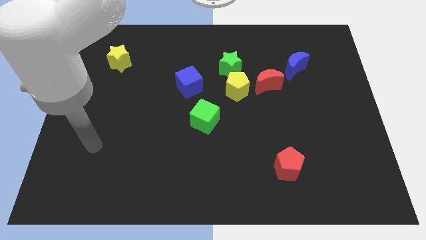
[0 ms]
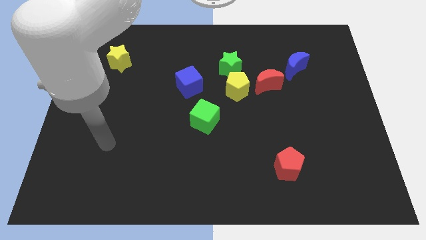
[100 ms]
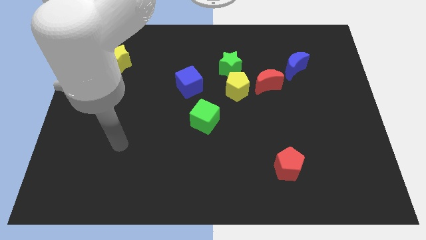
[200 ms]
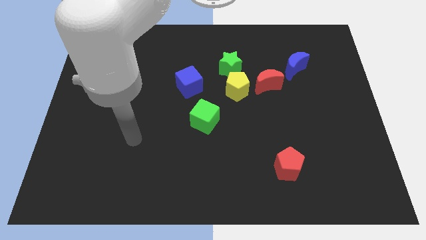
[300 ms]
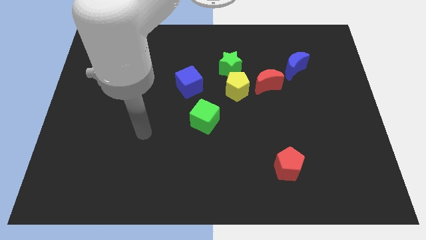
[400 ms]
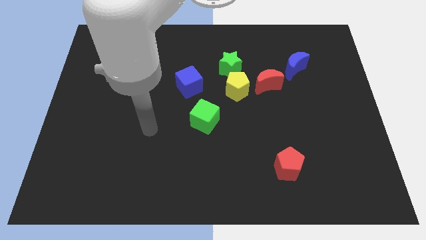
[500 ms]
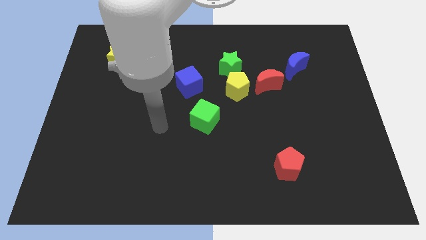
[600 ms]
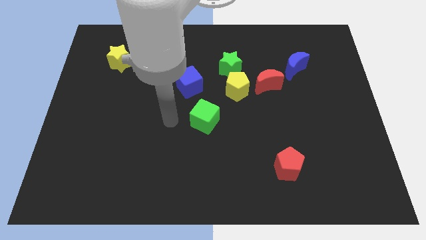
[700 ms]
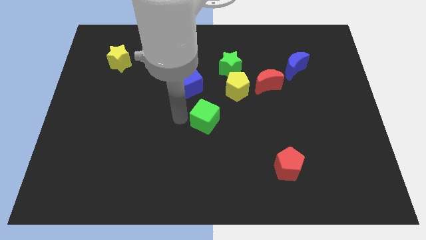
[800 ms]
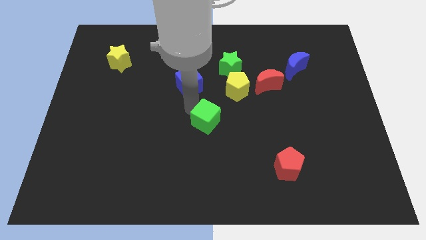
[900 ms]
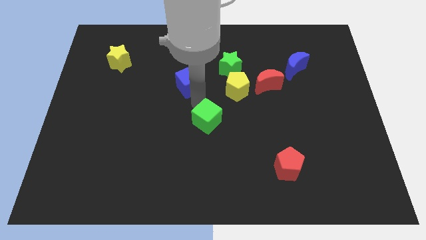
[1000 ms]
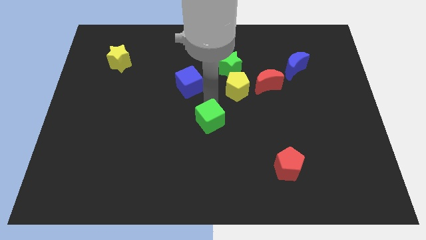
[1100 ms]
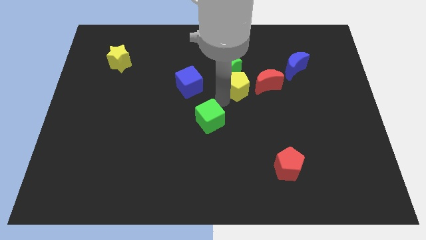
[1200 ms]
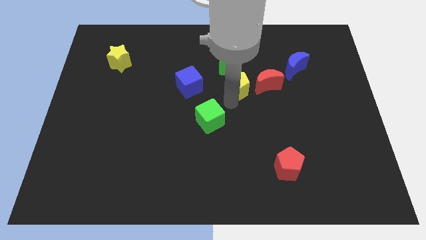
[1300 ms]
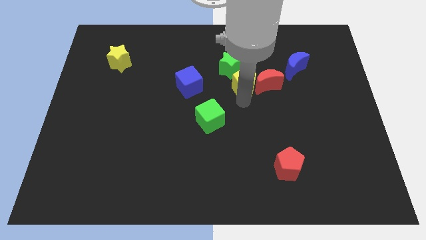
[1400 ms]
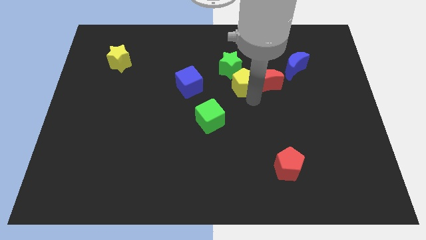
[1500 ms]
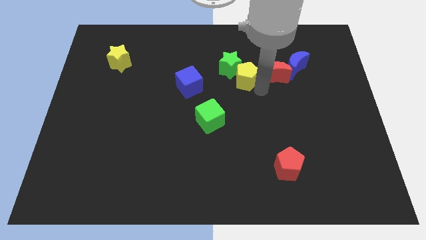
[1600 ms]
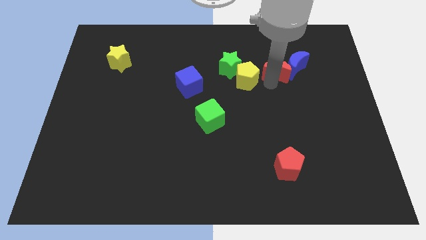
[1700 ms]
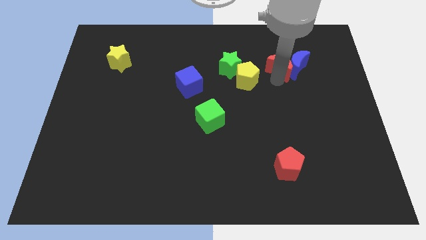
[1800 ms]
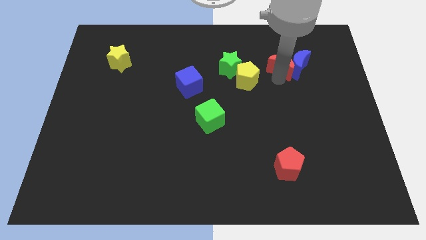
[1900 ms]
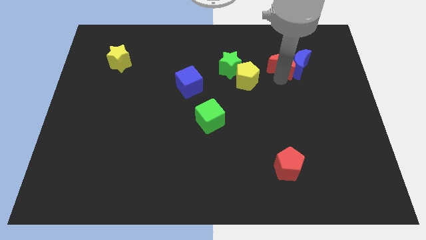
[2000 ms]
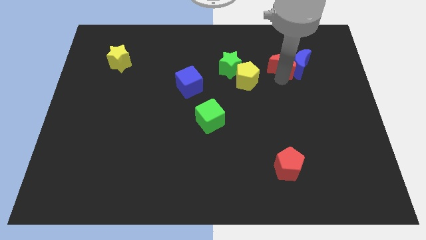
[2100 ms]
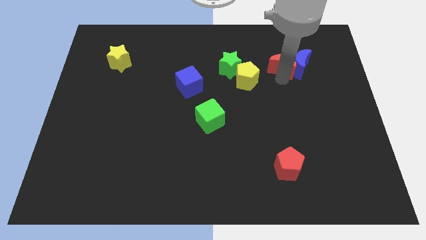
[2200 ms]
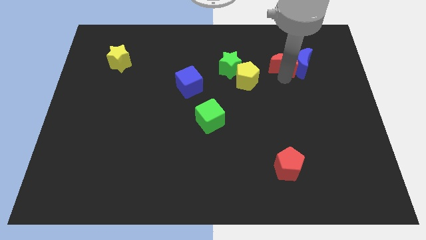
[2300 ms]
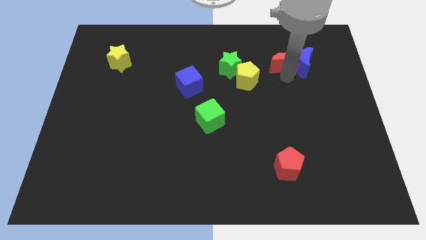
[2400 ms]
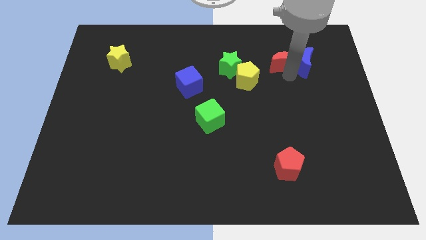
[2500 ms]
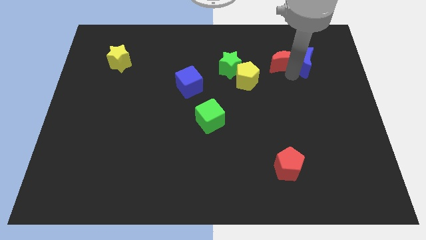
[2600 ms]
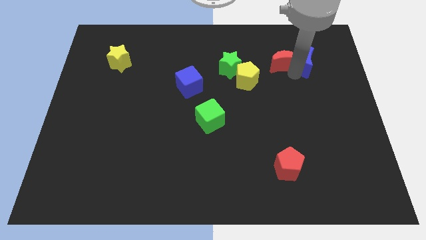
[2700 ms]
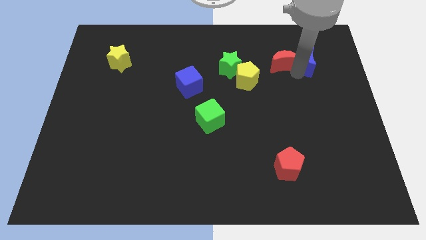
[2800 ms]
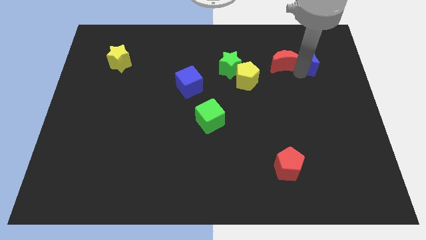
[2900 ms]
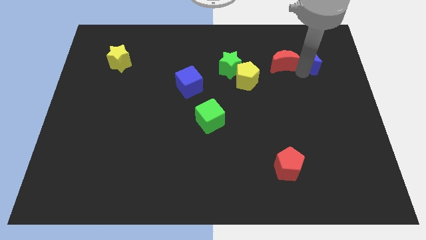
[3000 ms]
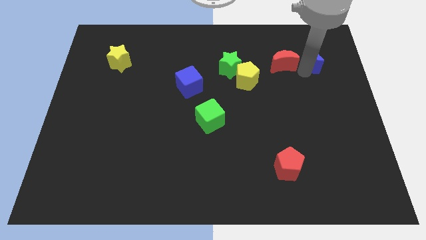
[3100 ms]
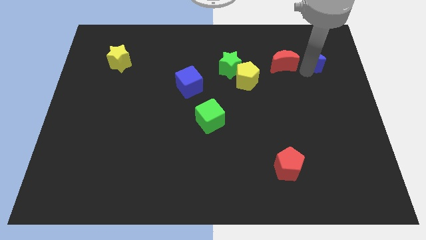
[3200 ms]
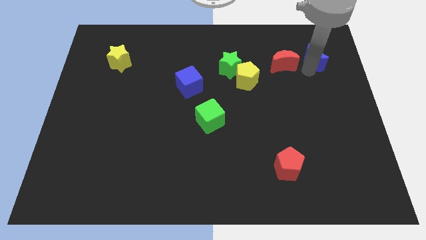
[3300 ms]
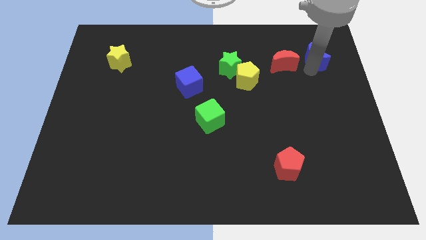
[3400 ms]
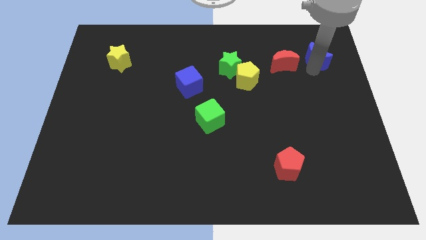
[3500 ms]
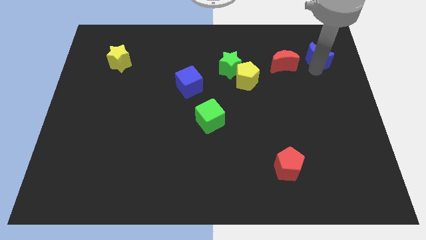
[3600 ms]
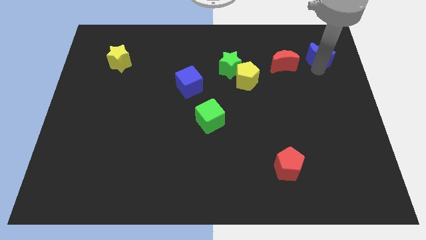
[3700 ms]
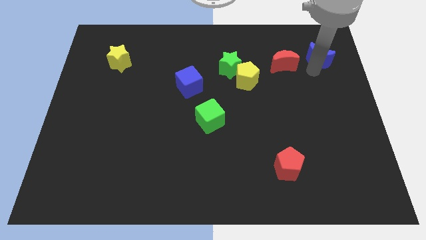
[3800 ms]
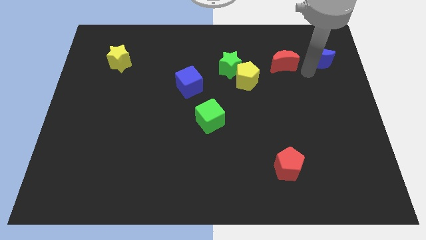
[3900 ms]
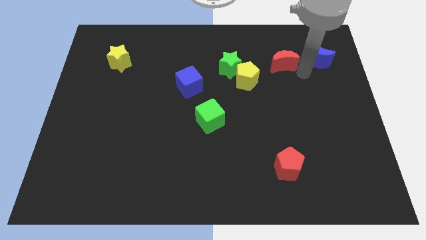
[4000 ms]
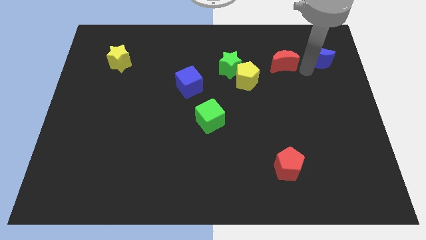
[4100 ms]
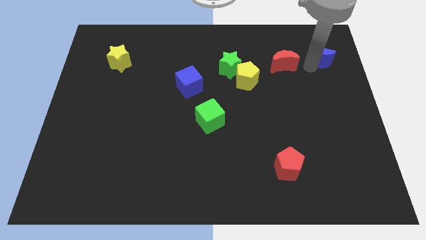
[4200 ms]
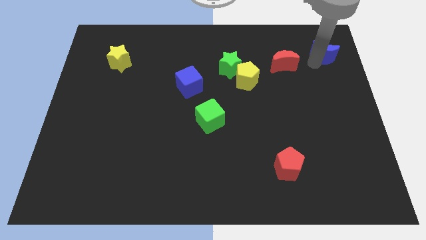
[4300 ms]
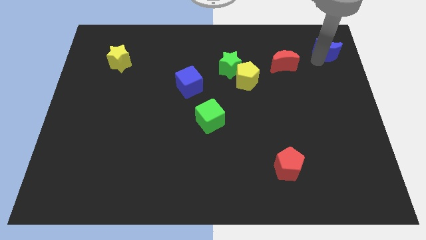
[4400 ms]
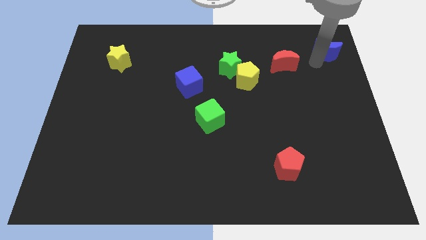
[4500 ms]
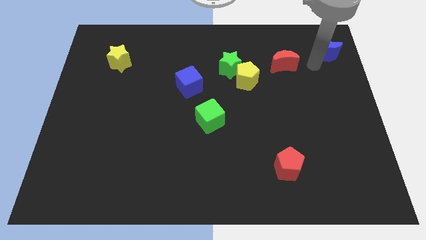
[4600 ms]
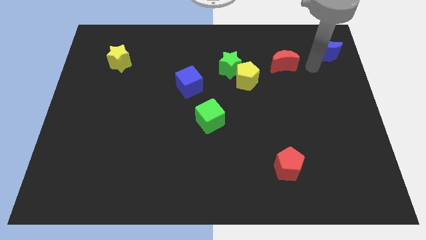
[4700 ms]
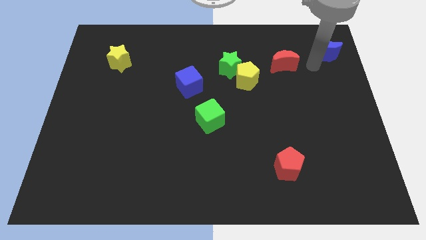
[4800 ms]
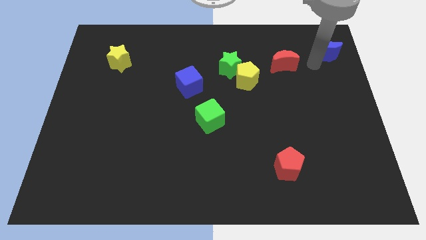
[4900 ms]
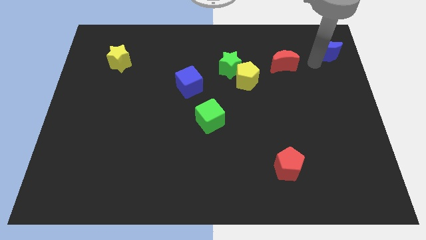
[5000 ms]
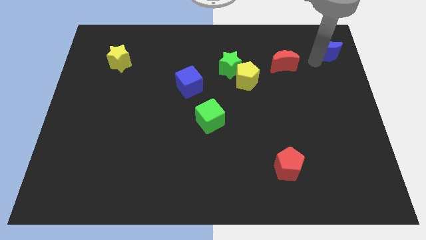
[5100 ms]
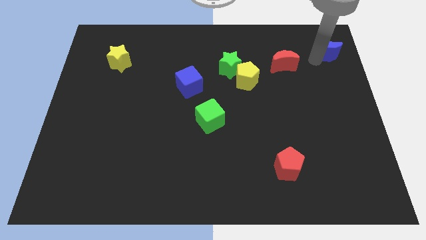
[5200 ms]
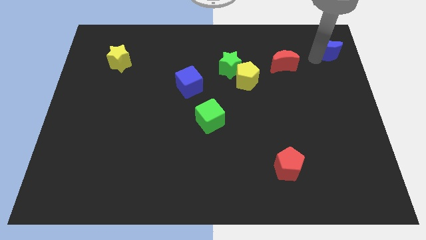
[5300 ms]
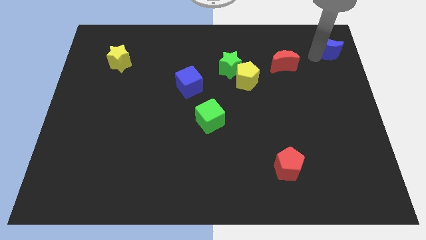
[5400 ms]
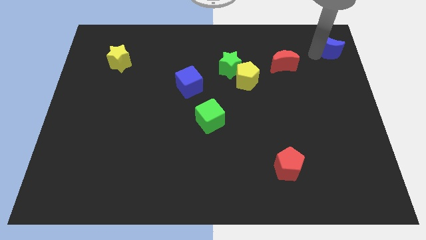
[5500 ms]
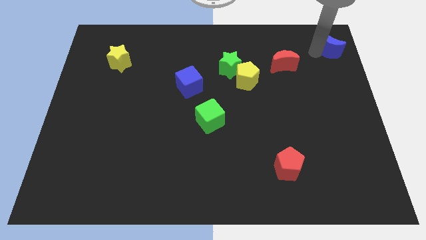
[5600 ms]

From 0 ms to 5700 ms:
slide the blue moon to the top right of the board
